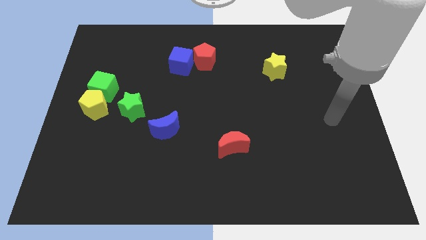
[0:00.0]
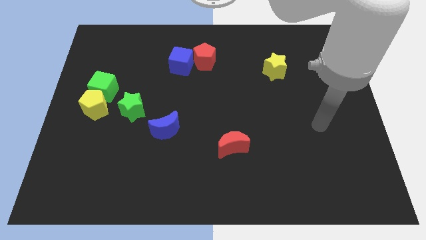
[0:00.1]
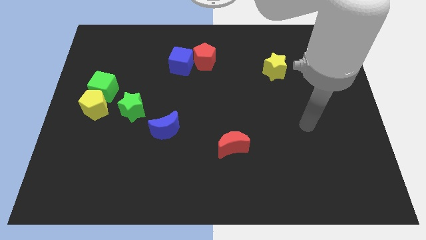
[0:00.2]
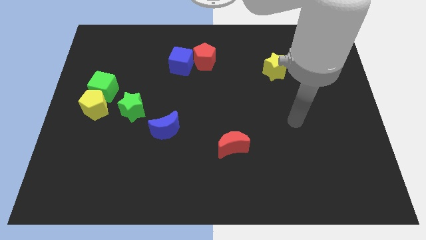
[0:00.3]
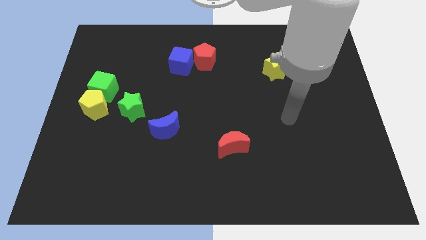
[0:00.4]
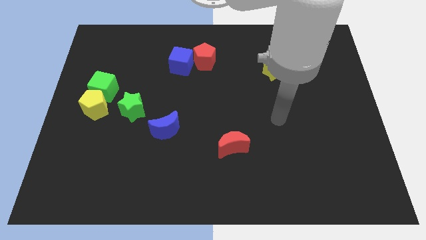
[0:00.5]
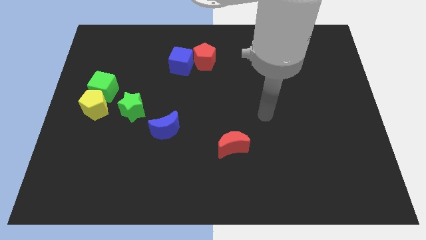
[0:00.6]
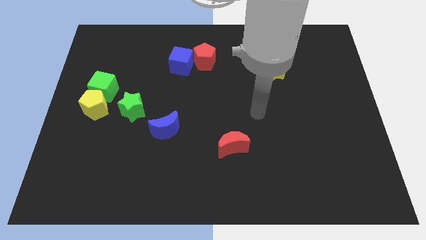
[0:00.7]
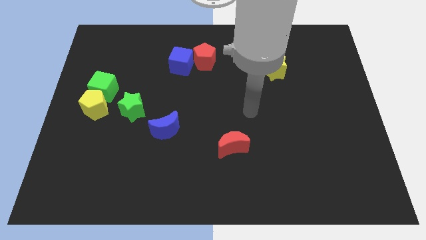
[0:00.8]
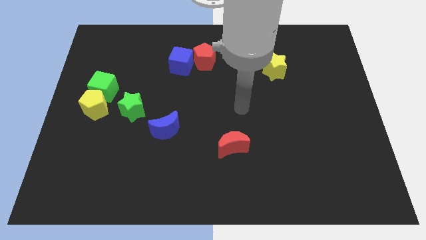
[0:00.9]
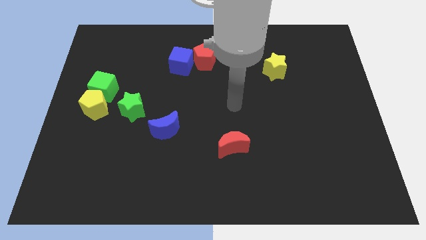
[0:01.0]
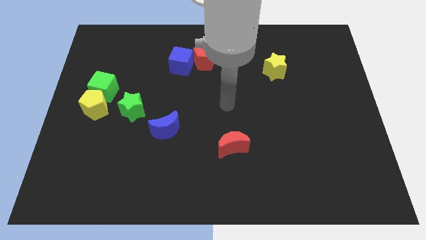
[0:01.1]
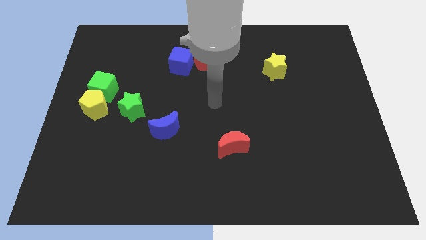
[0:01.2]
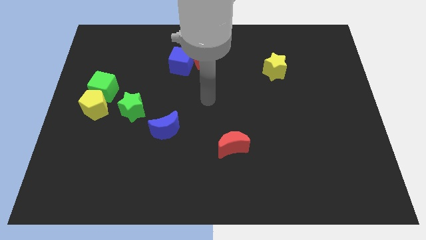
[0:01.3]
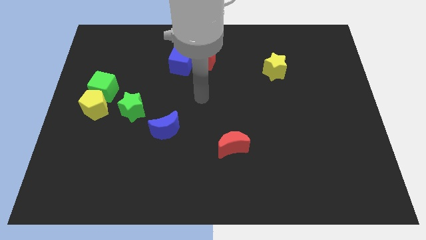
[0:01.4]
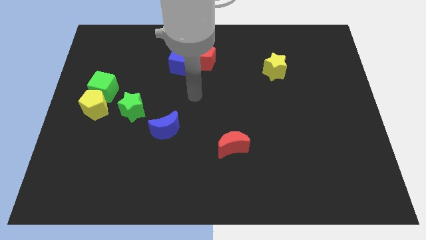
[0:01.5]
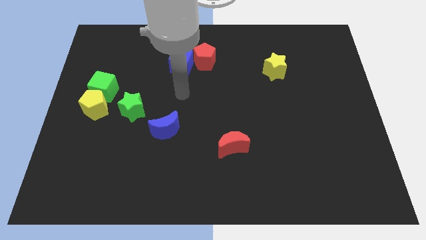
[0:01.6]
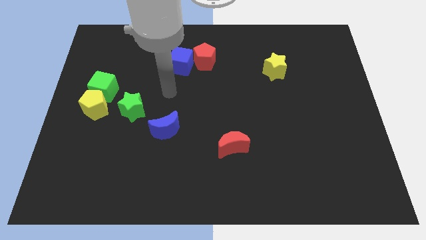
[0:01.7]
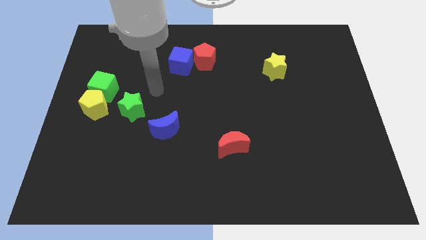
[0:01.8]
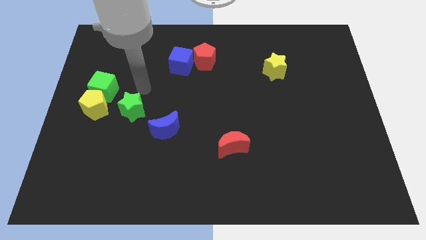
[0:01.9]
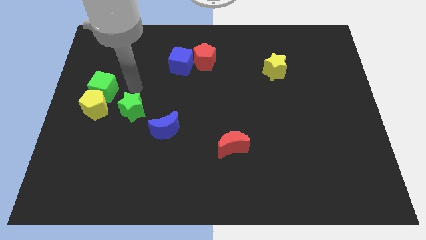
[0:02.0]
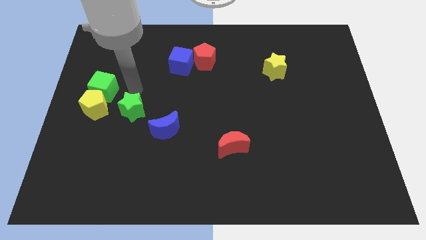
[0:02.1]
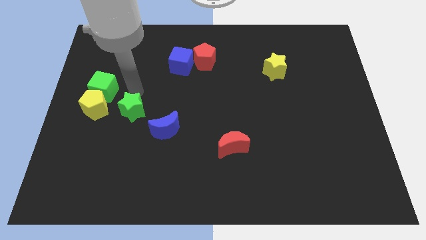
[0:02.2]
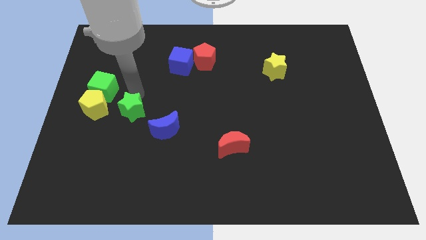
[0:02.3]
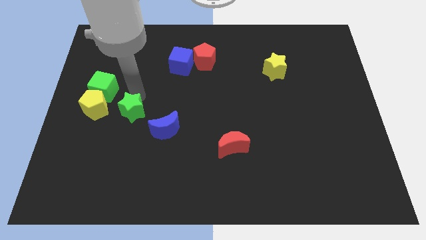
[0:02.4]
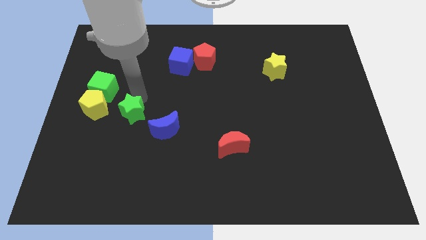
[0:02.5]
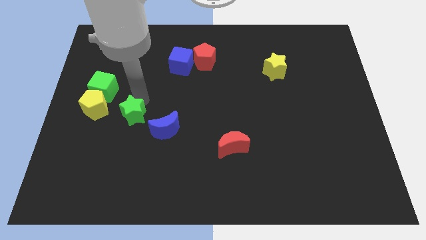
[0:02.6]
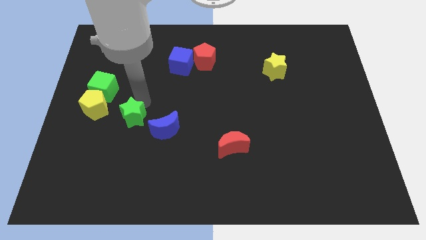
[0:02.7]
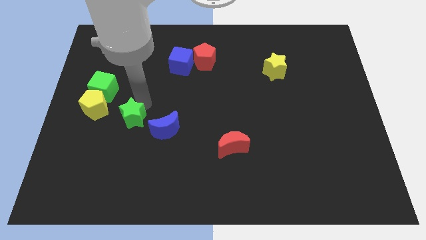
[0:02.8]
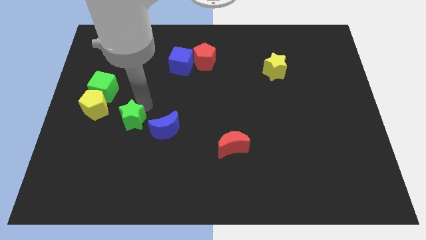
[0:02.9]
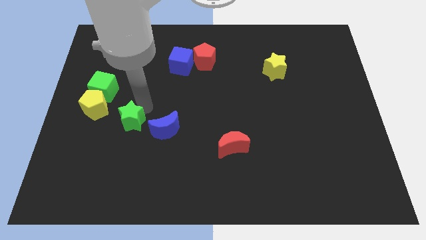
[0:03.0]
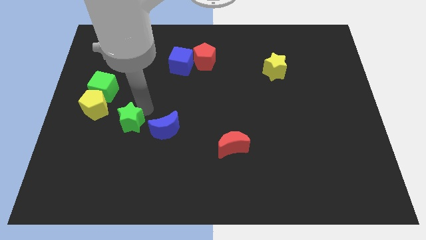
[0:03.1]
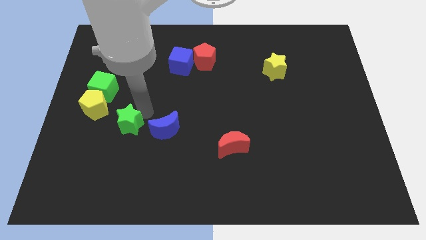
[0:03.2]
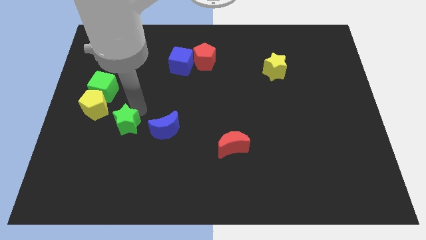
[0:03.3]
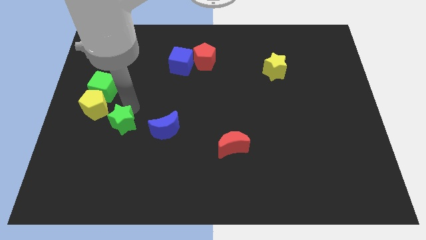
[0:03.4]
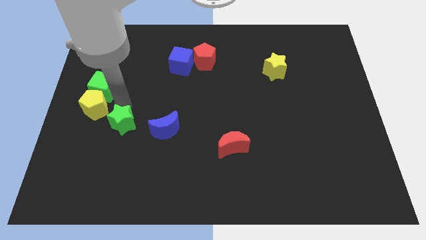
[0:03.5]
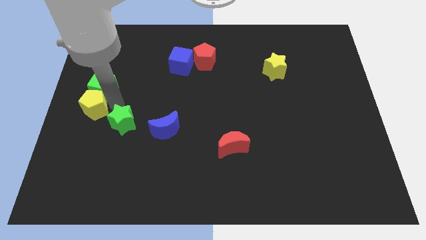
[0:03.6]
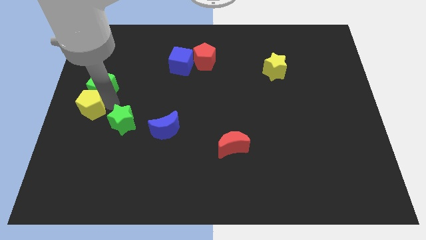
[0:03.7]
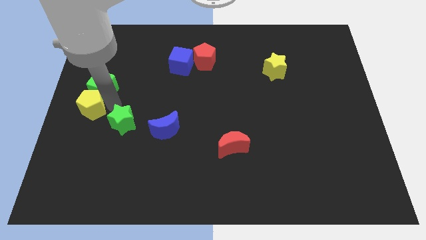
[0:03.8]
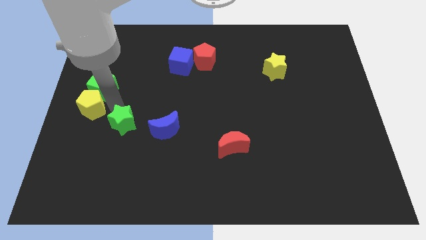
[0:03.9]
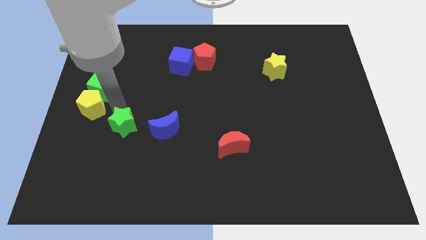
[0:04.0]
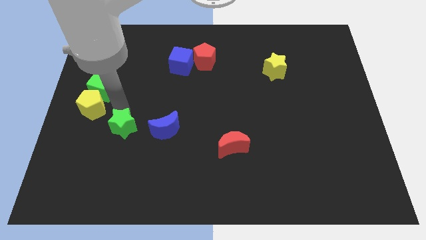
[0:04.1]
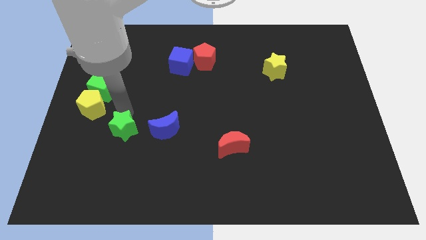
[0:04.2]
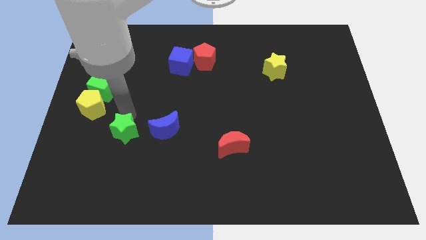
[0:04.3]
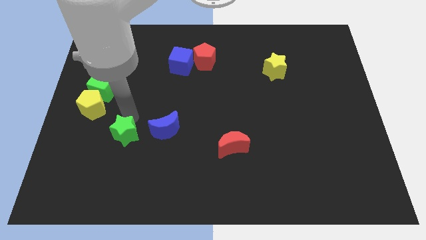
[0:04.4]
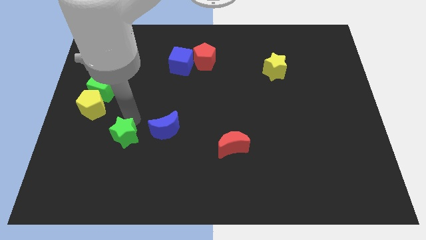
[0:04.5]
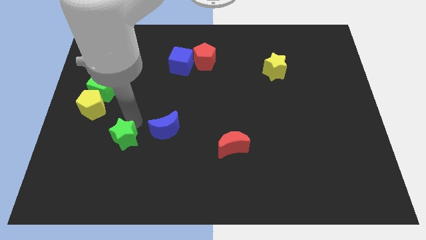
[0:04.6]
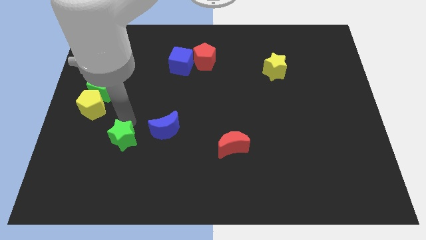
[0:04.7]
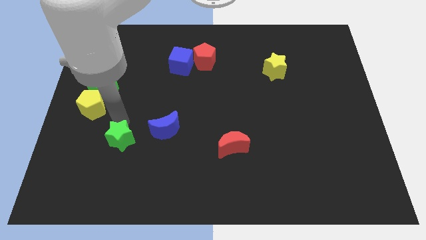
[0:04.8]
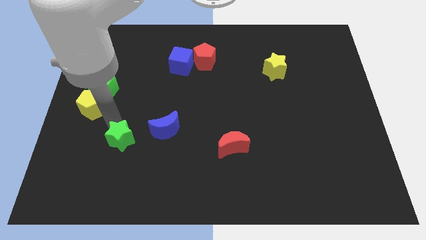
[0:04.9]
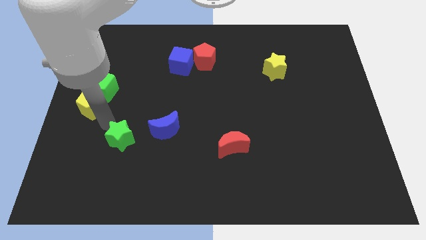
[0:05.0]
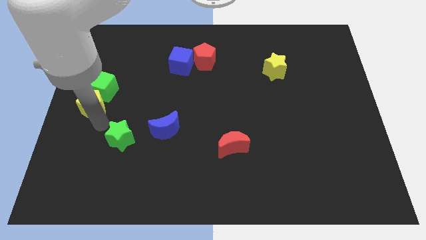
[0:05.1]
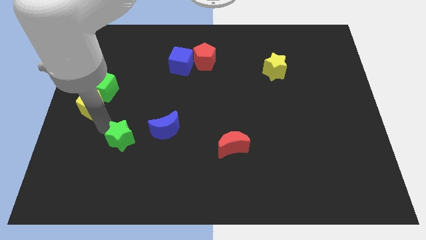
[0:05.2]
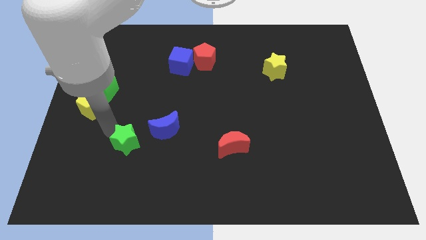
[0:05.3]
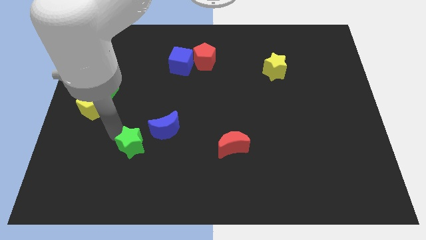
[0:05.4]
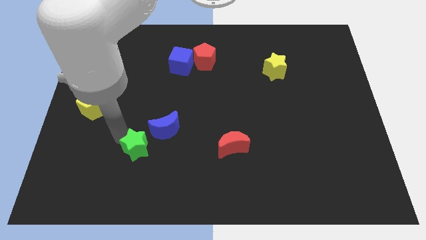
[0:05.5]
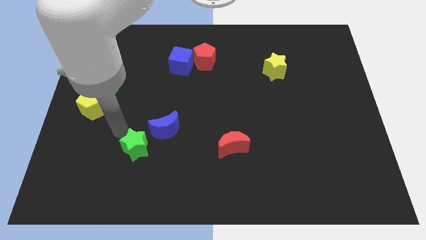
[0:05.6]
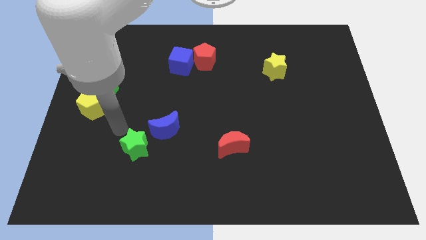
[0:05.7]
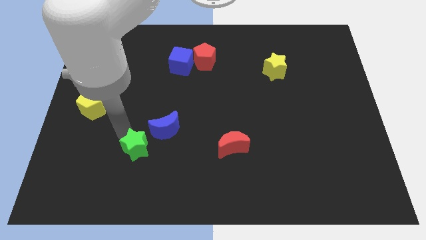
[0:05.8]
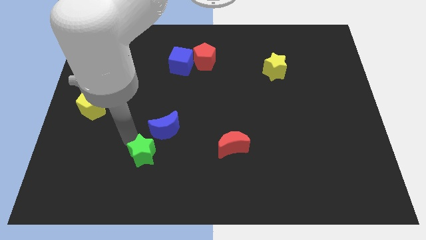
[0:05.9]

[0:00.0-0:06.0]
slide the green star to the bottom side of the blue moon

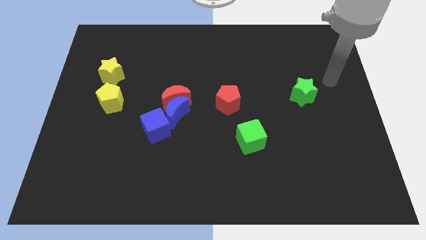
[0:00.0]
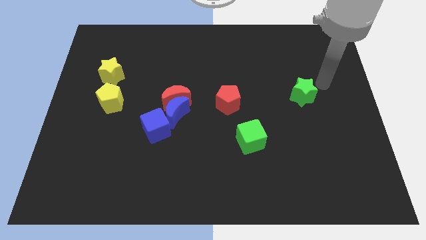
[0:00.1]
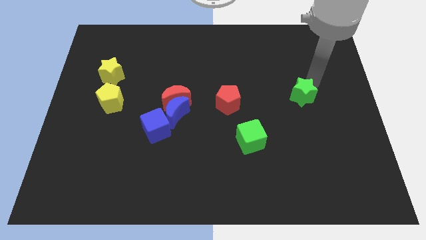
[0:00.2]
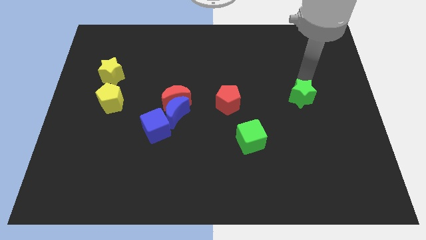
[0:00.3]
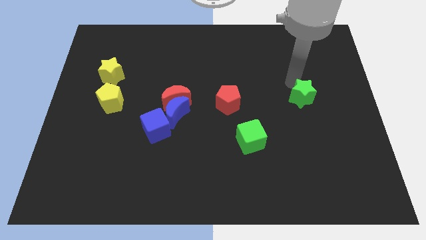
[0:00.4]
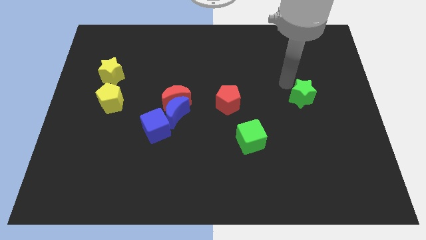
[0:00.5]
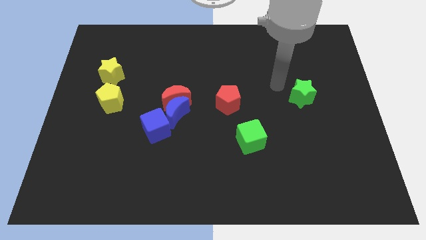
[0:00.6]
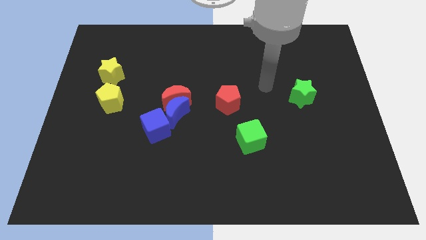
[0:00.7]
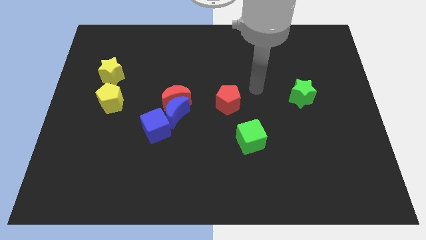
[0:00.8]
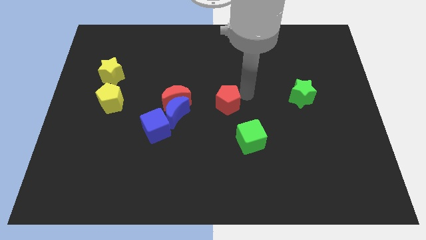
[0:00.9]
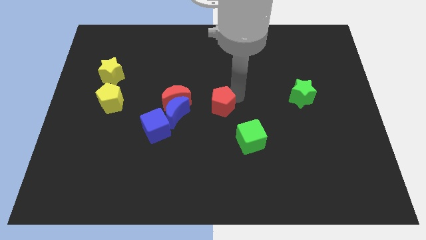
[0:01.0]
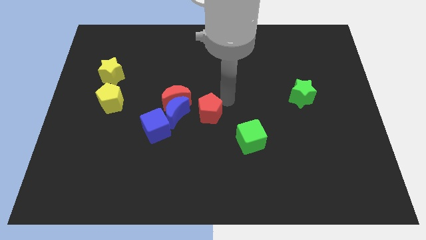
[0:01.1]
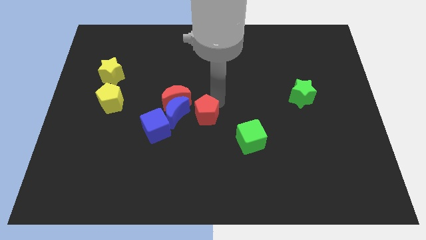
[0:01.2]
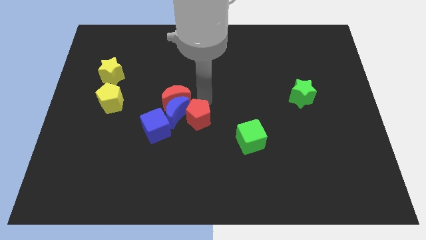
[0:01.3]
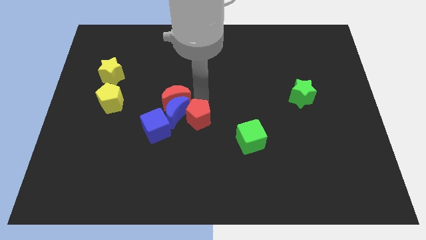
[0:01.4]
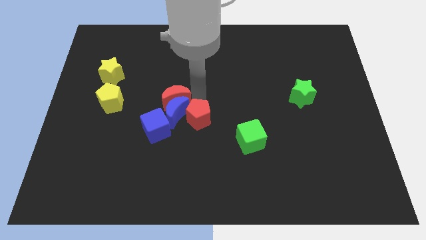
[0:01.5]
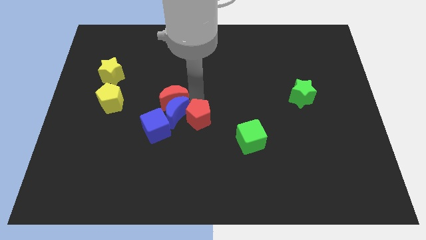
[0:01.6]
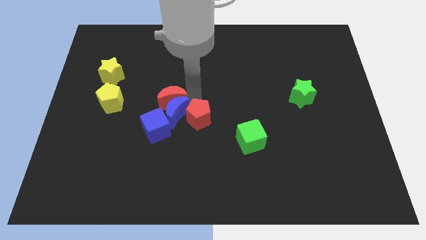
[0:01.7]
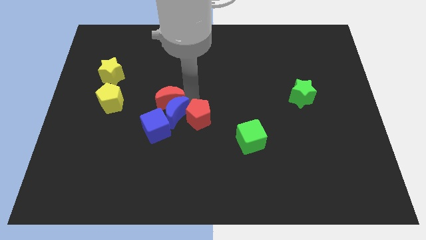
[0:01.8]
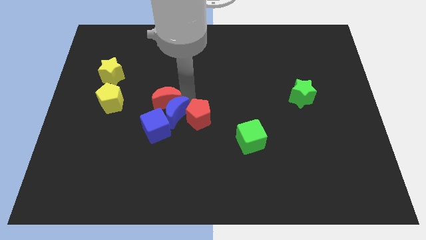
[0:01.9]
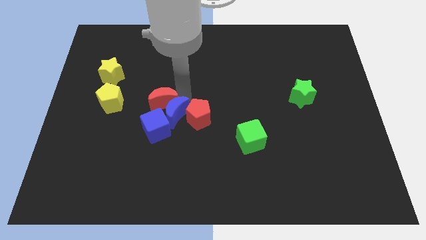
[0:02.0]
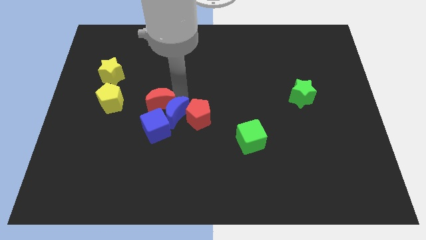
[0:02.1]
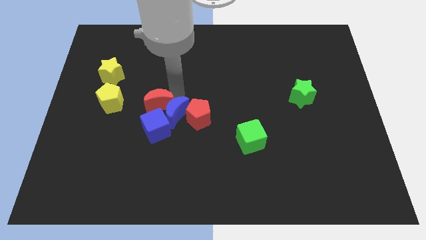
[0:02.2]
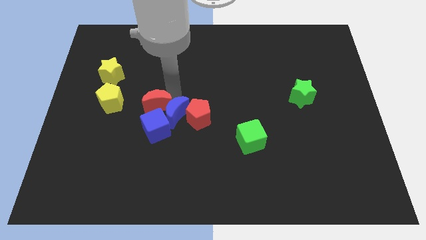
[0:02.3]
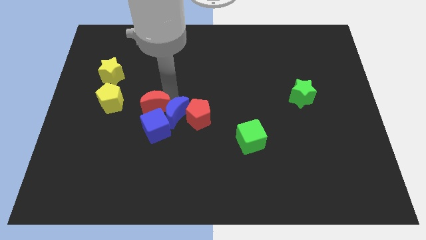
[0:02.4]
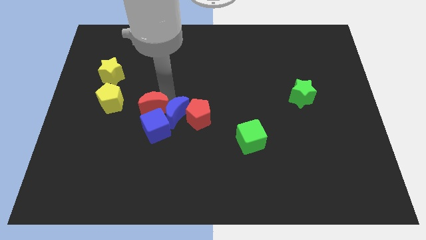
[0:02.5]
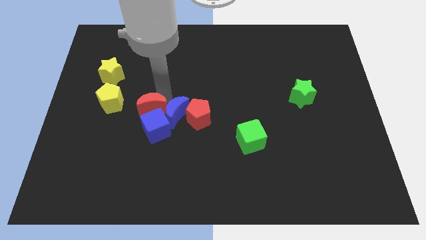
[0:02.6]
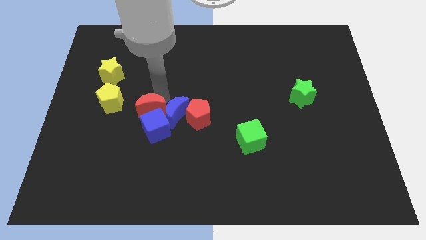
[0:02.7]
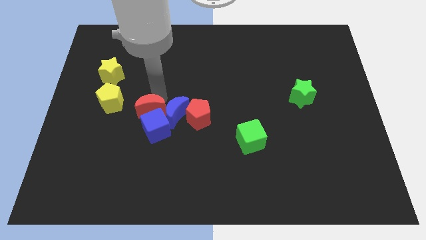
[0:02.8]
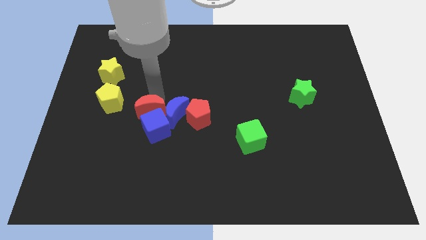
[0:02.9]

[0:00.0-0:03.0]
move the red moon to the bottom left of the blue moon
